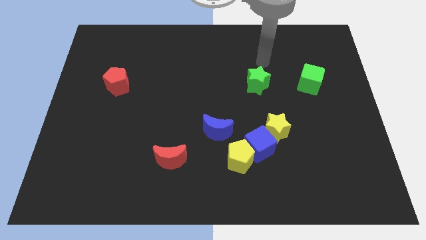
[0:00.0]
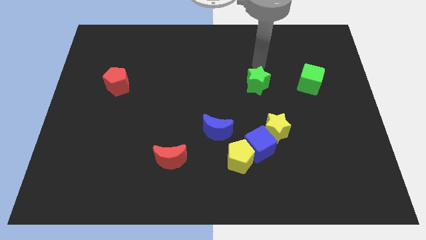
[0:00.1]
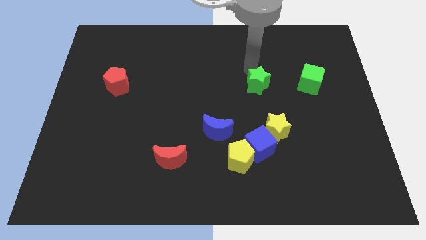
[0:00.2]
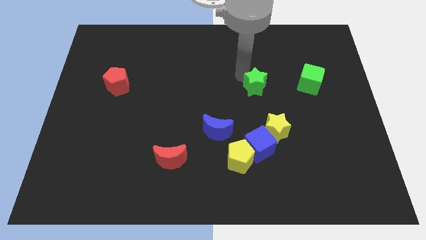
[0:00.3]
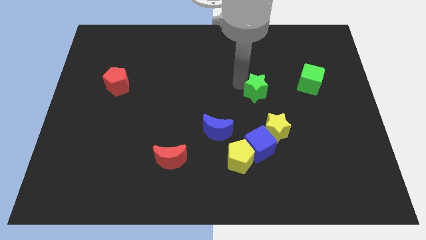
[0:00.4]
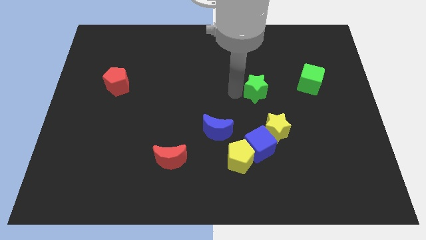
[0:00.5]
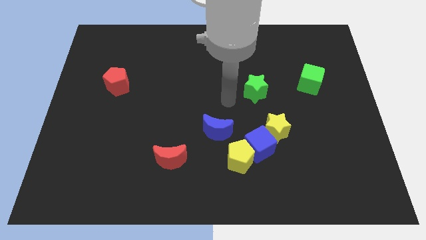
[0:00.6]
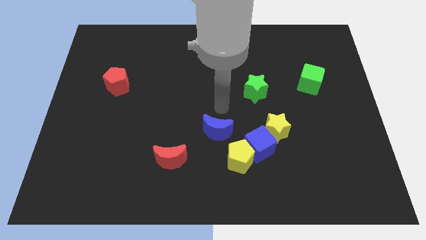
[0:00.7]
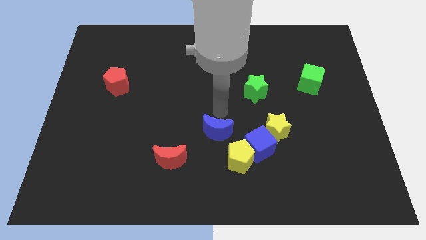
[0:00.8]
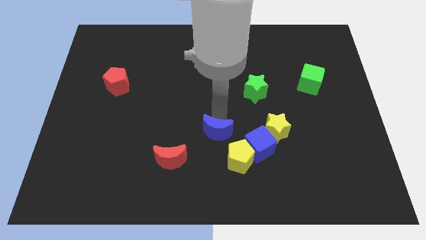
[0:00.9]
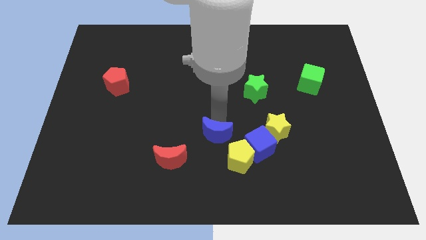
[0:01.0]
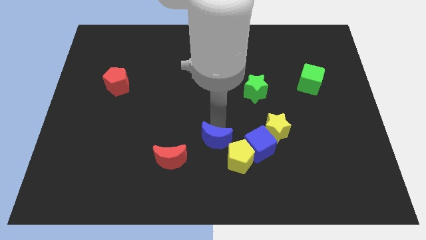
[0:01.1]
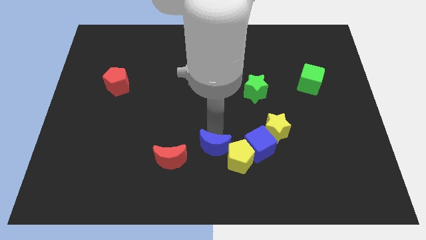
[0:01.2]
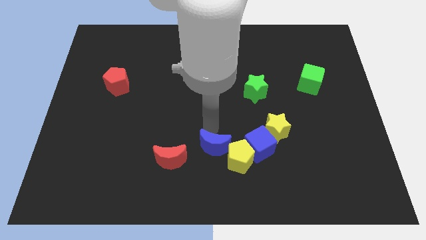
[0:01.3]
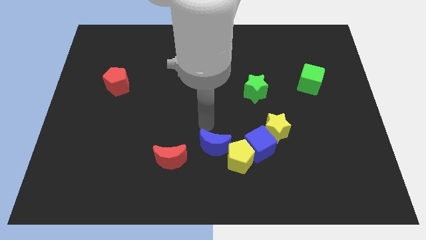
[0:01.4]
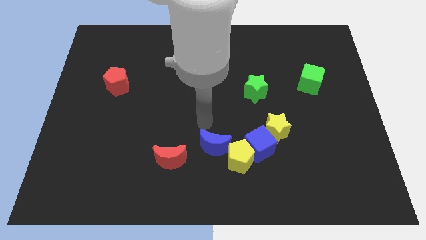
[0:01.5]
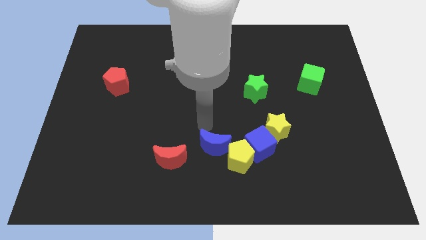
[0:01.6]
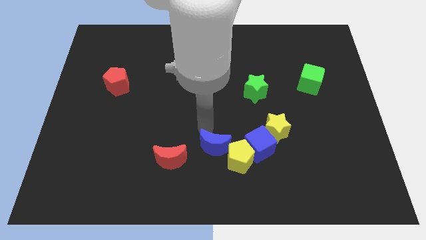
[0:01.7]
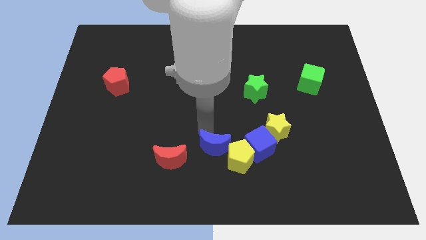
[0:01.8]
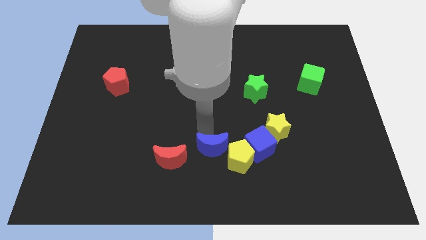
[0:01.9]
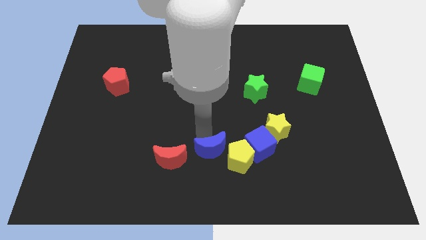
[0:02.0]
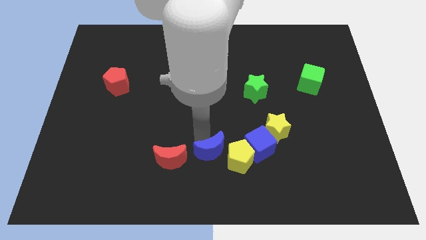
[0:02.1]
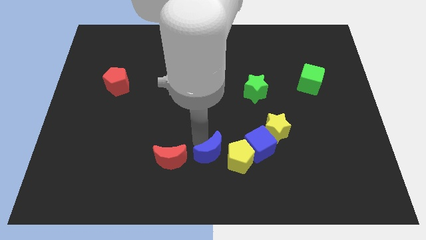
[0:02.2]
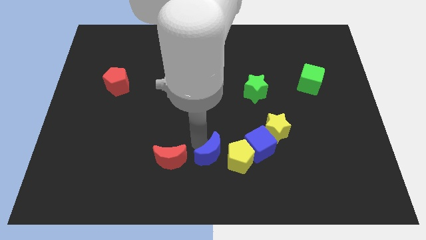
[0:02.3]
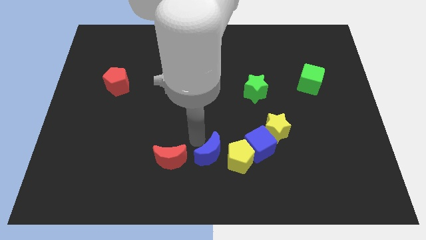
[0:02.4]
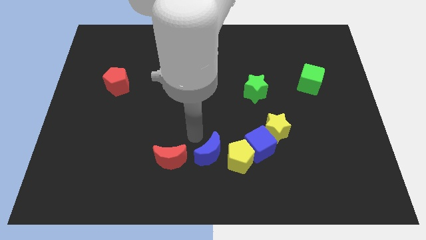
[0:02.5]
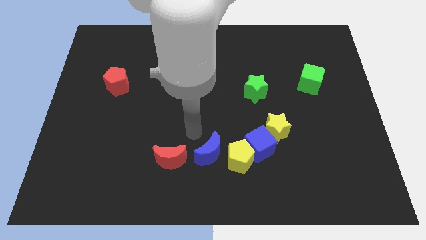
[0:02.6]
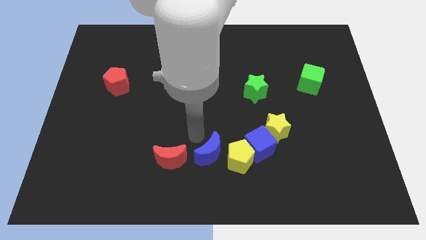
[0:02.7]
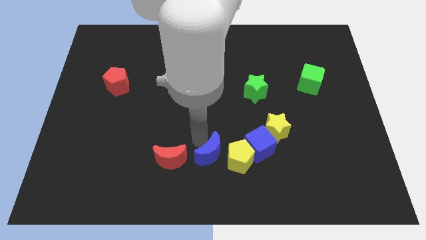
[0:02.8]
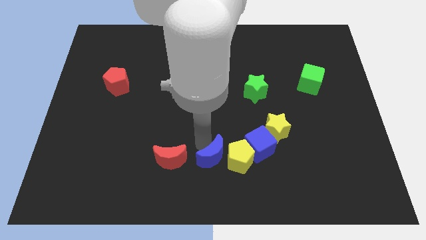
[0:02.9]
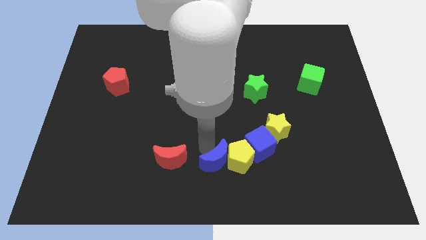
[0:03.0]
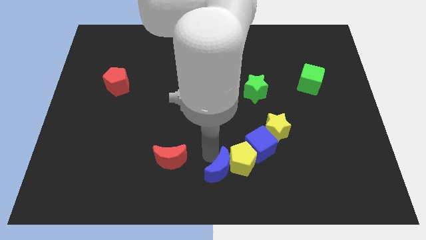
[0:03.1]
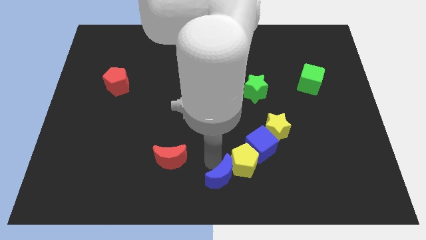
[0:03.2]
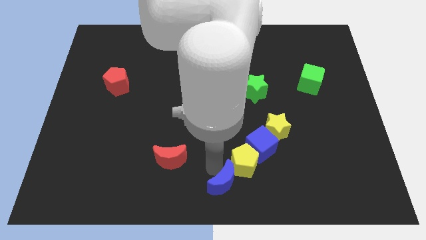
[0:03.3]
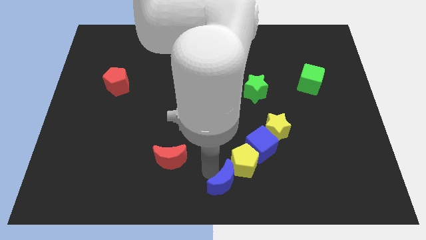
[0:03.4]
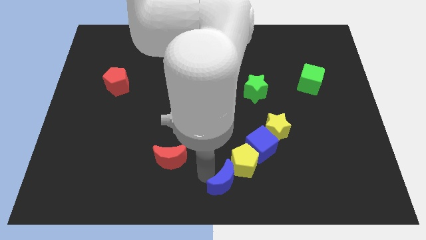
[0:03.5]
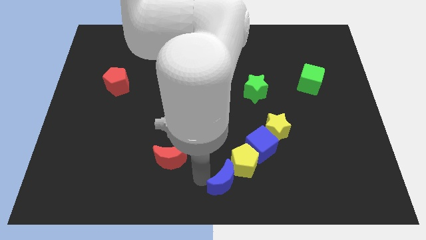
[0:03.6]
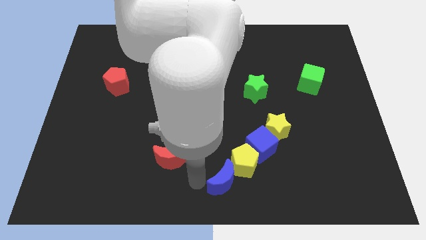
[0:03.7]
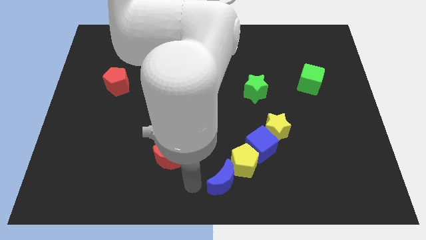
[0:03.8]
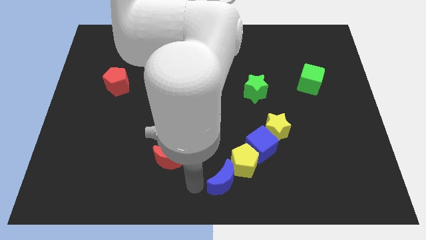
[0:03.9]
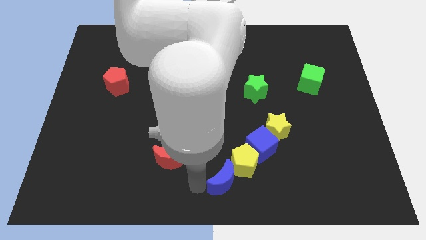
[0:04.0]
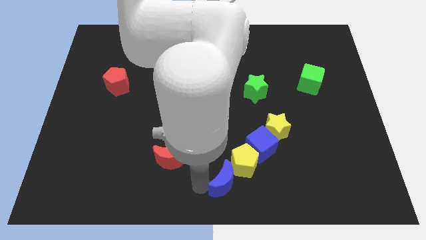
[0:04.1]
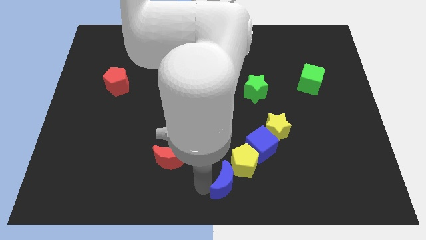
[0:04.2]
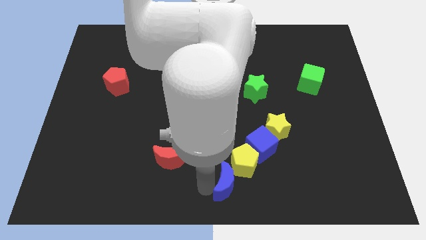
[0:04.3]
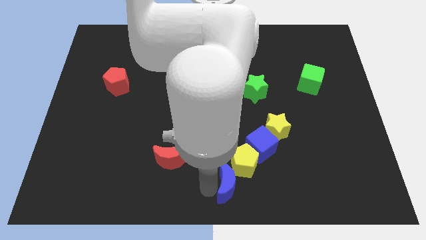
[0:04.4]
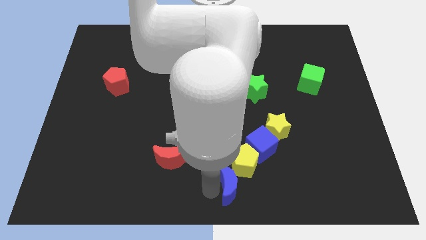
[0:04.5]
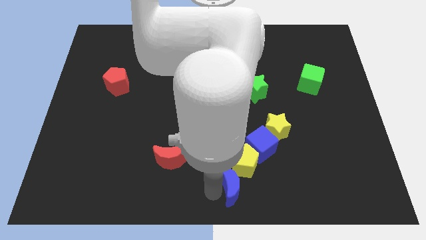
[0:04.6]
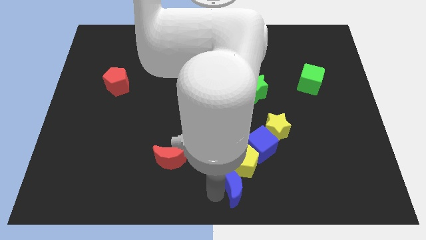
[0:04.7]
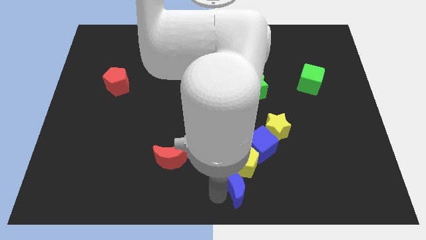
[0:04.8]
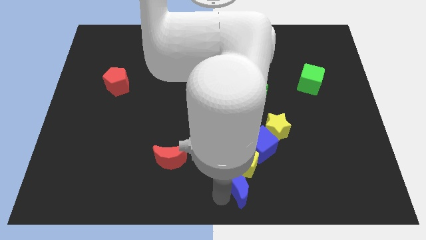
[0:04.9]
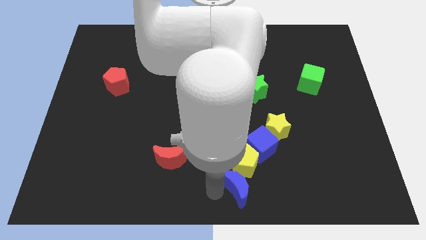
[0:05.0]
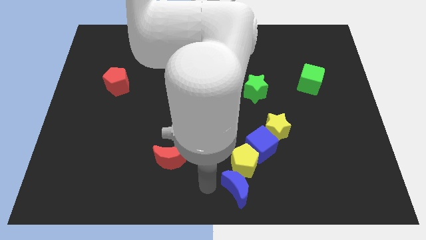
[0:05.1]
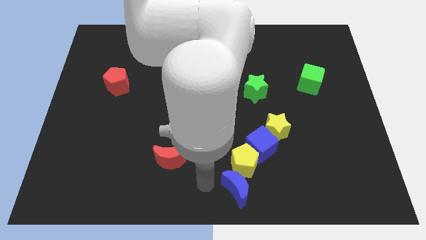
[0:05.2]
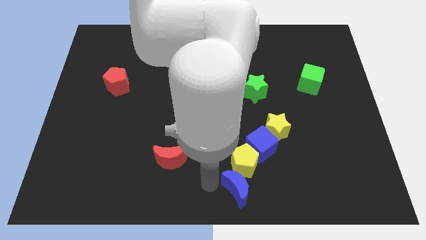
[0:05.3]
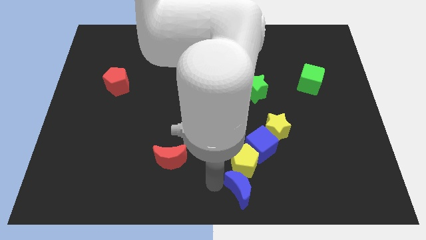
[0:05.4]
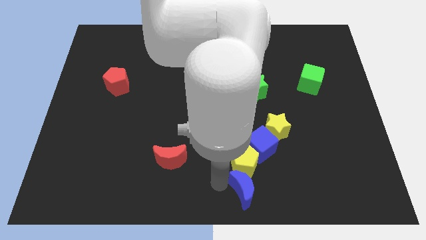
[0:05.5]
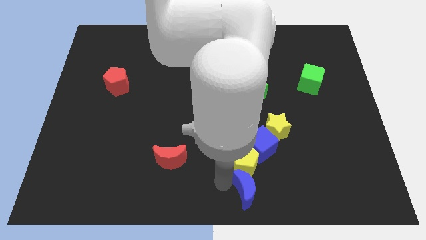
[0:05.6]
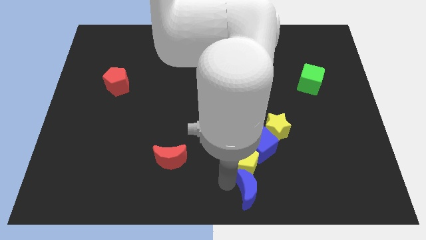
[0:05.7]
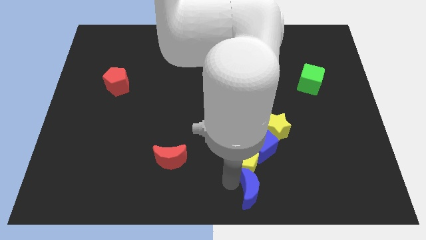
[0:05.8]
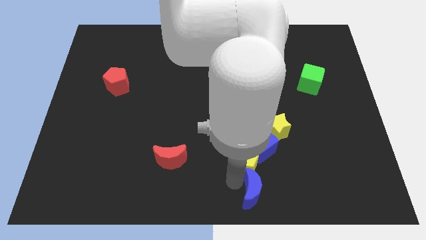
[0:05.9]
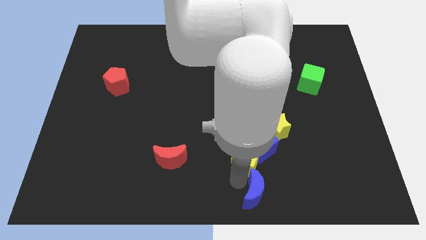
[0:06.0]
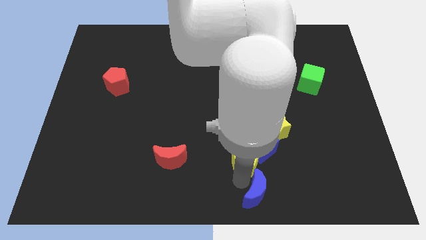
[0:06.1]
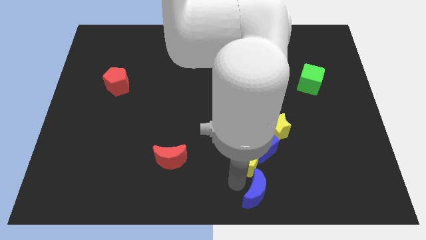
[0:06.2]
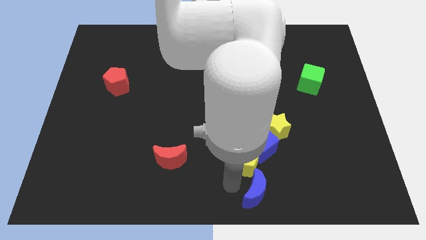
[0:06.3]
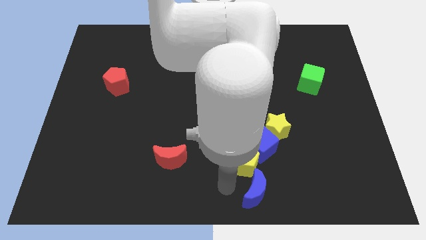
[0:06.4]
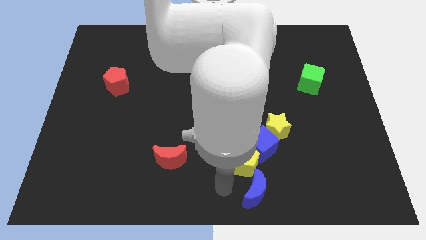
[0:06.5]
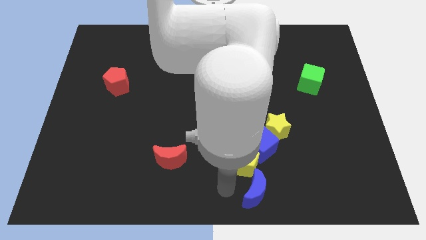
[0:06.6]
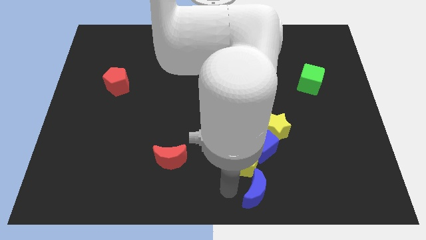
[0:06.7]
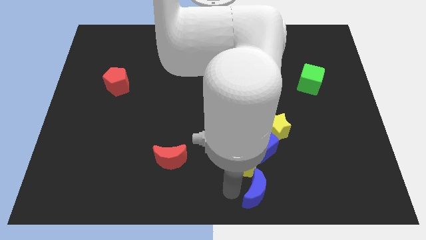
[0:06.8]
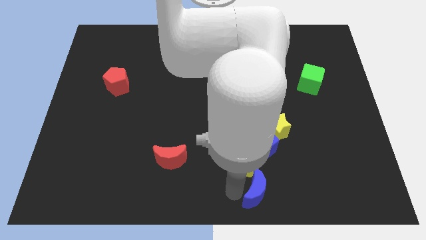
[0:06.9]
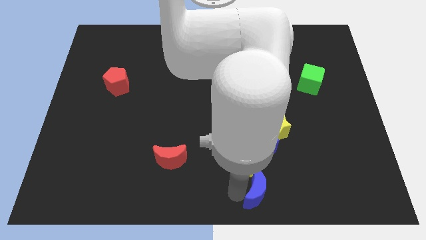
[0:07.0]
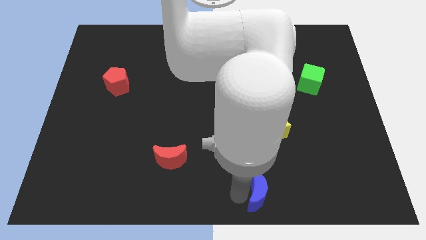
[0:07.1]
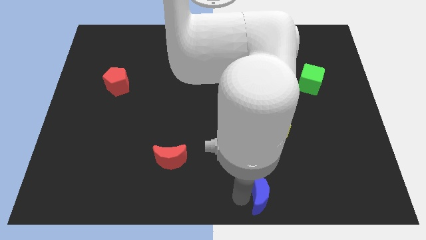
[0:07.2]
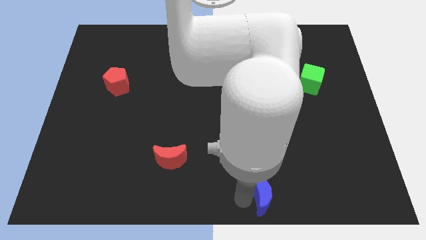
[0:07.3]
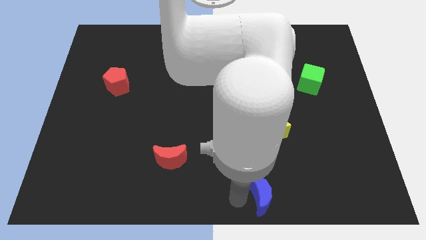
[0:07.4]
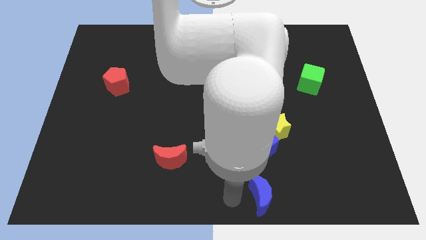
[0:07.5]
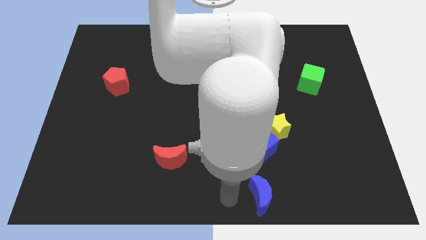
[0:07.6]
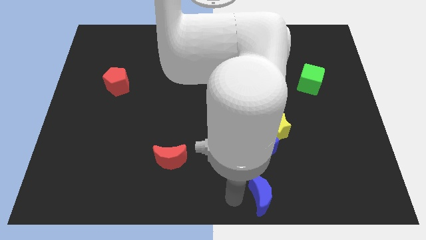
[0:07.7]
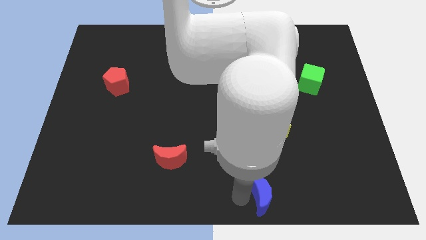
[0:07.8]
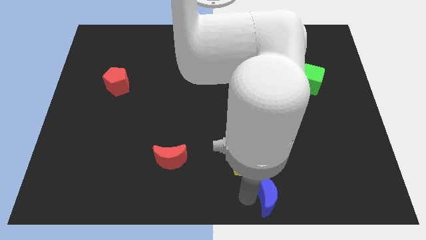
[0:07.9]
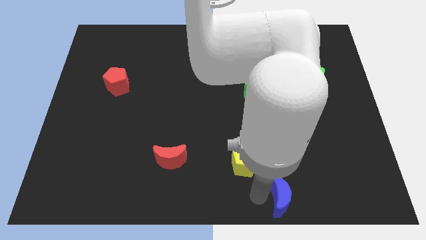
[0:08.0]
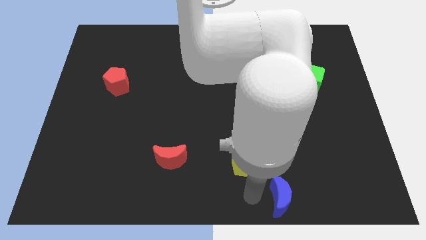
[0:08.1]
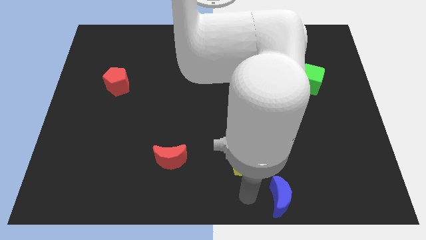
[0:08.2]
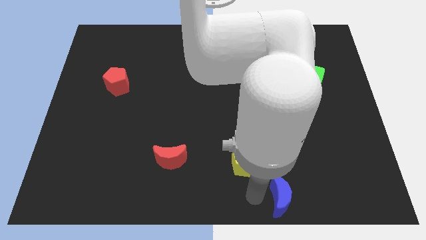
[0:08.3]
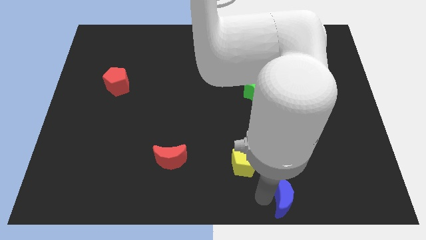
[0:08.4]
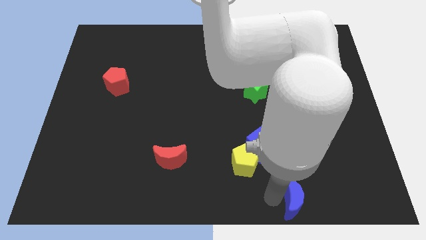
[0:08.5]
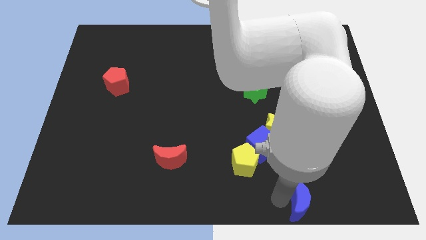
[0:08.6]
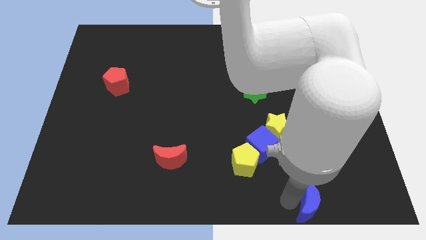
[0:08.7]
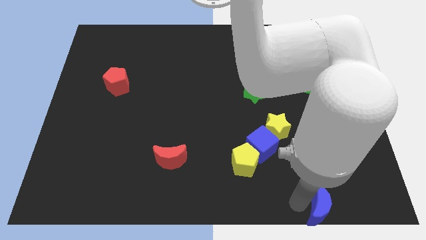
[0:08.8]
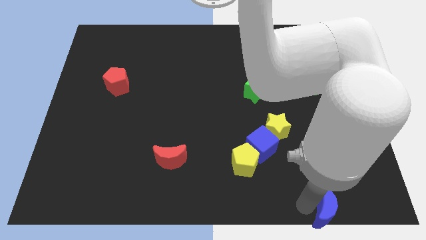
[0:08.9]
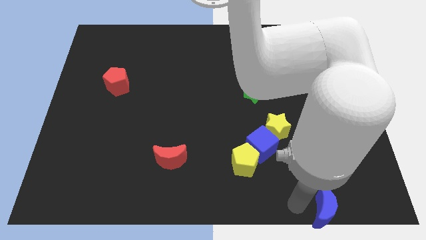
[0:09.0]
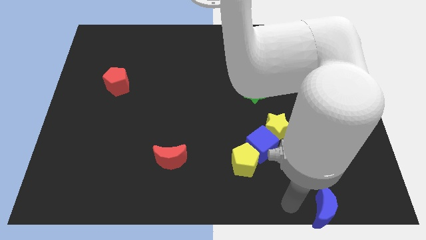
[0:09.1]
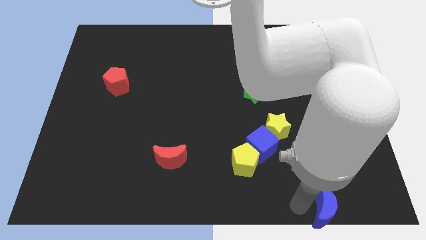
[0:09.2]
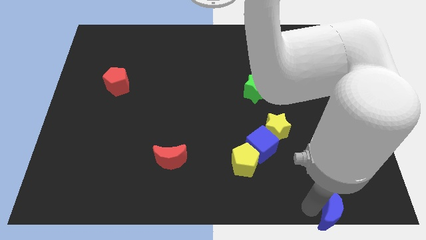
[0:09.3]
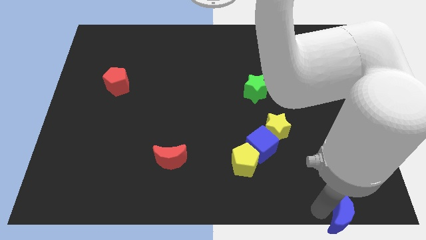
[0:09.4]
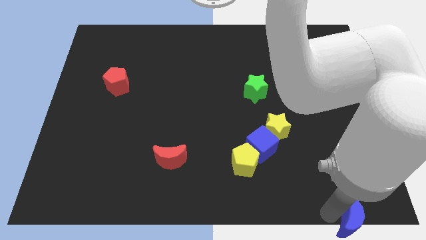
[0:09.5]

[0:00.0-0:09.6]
put the blue moon to the bottom right corner
